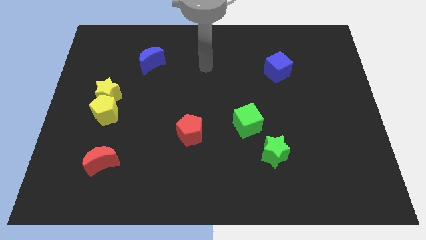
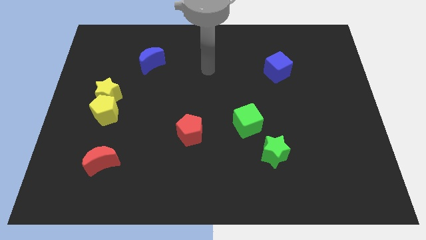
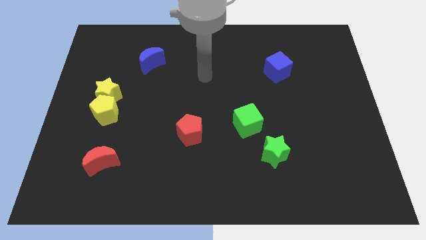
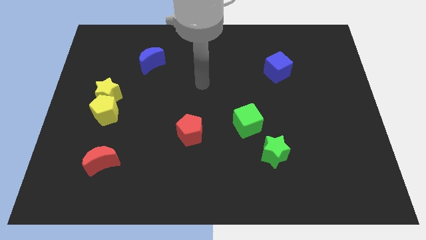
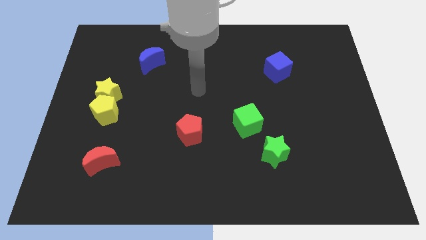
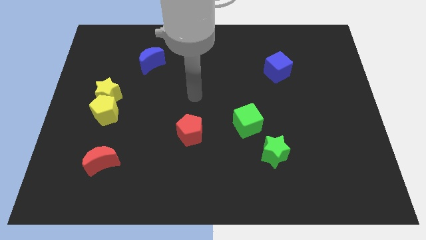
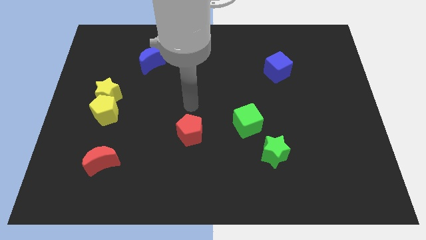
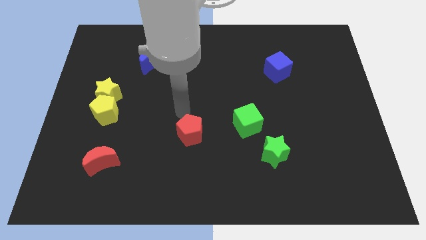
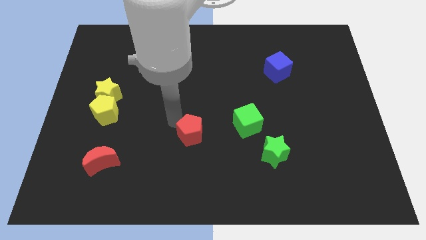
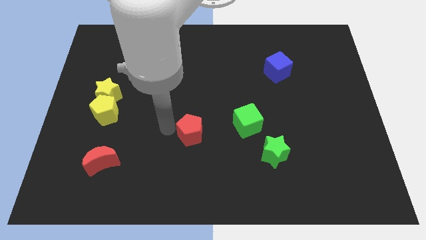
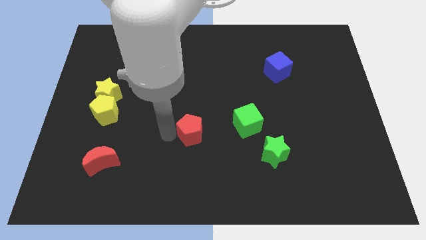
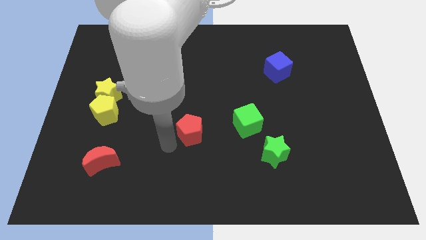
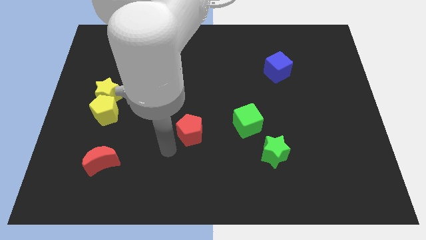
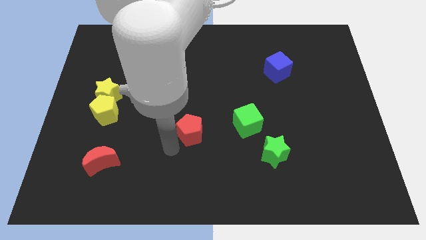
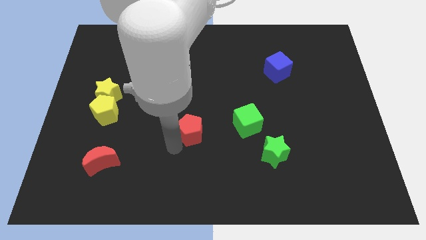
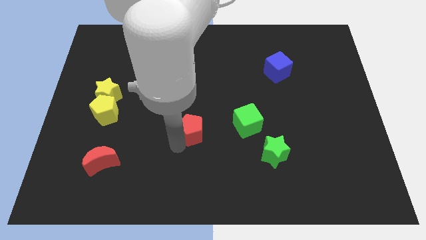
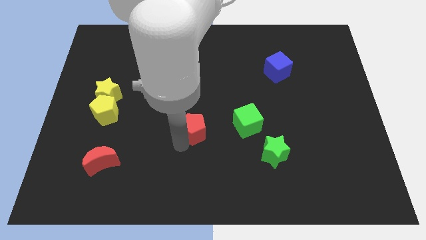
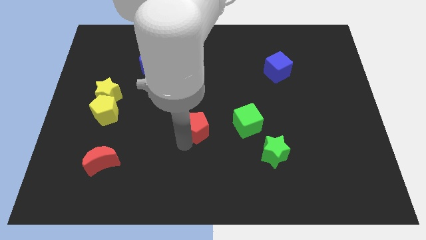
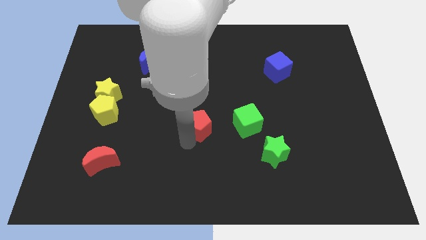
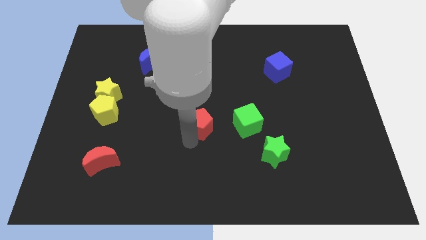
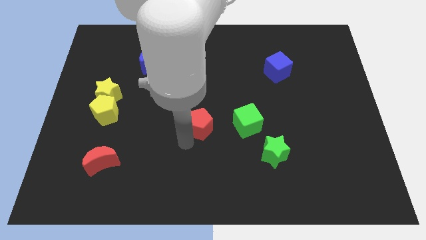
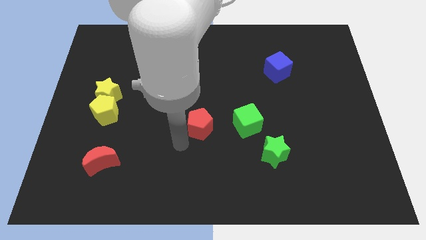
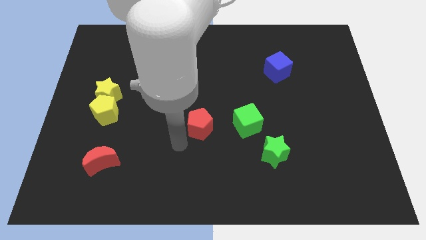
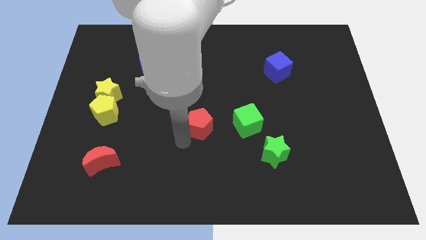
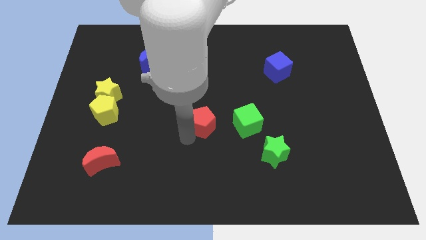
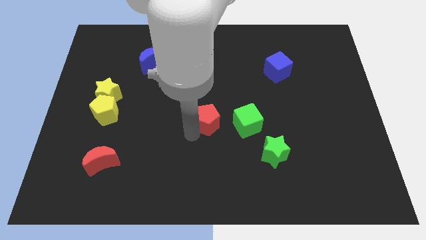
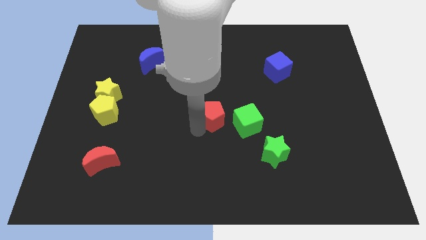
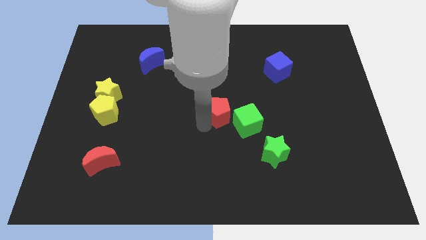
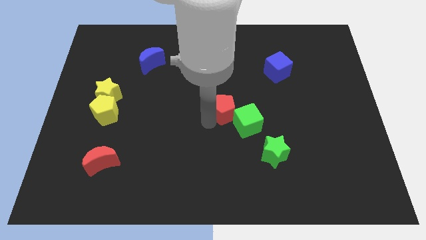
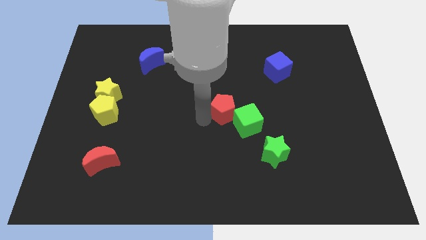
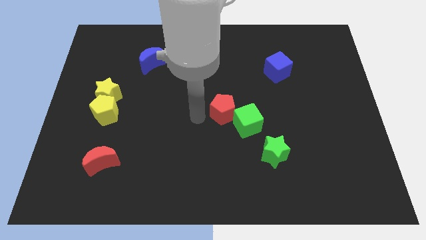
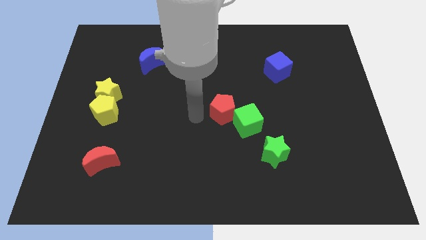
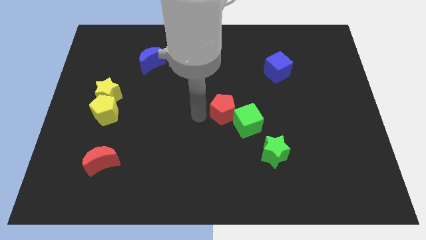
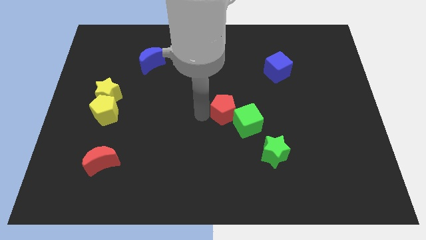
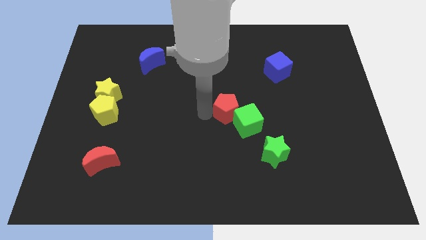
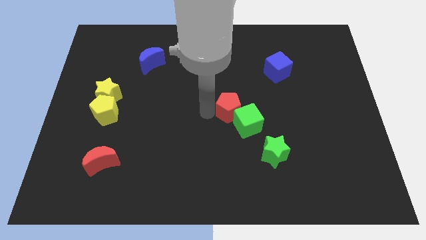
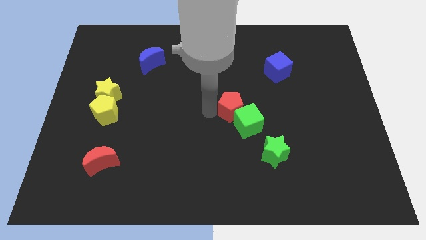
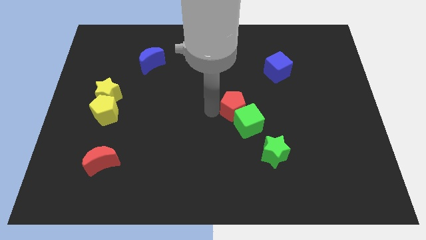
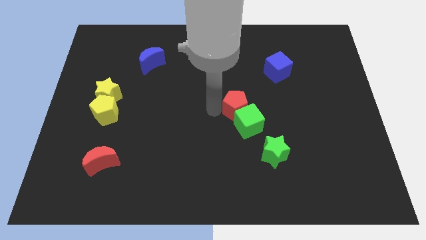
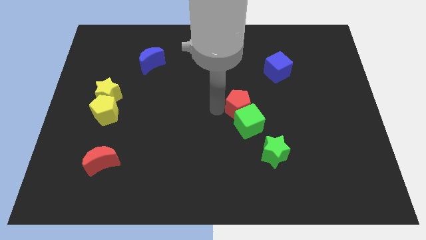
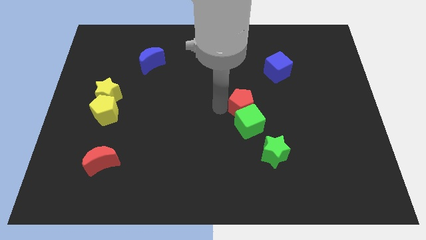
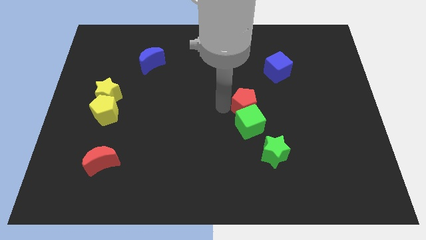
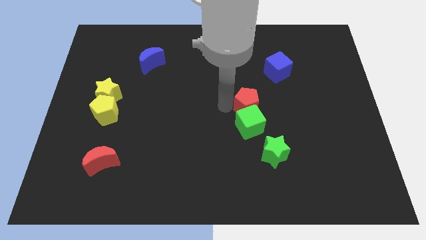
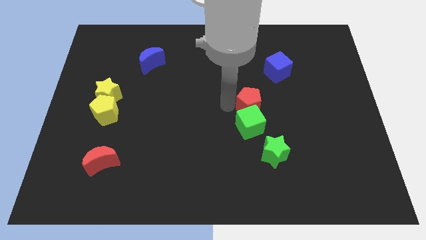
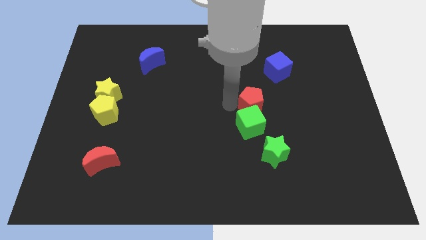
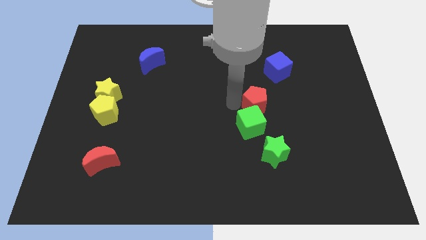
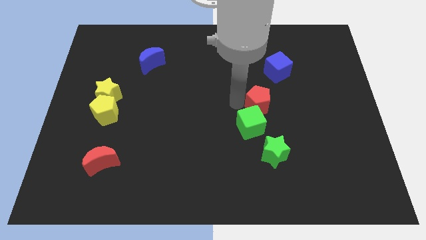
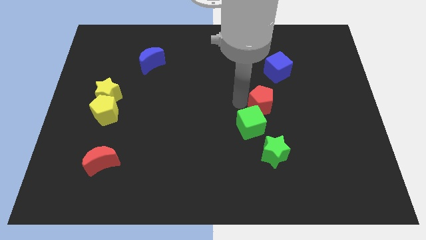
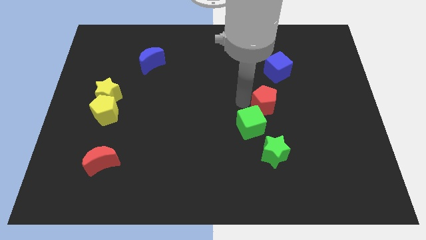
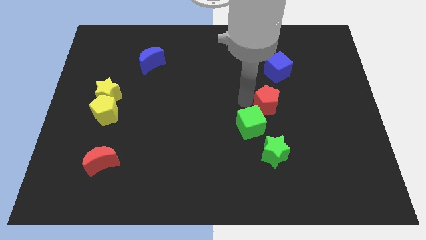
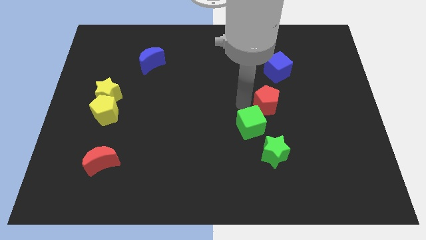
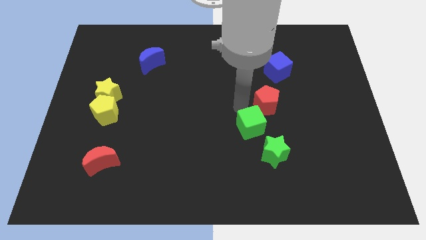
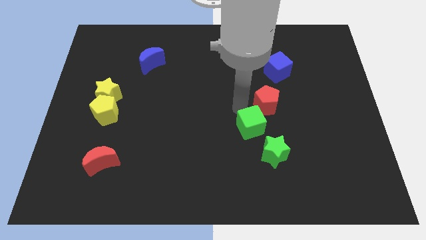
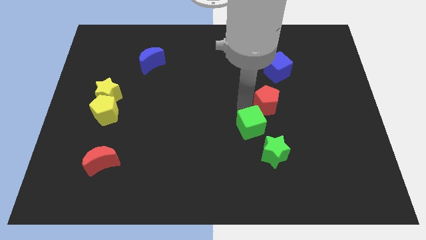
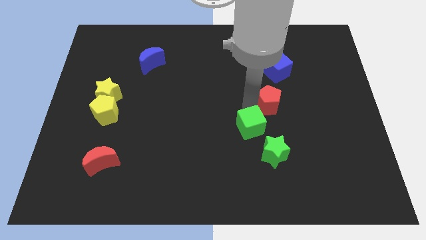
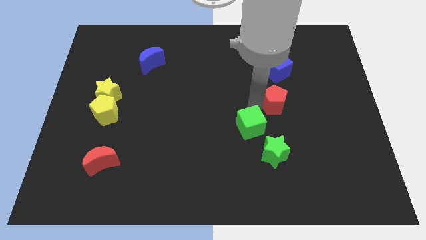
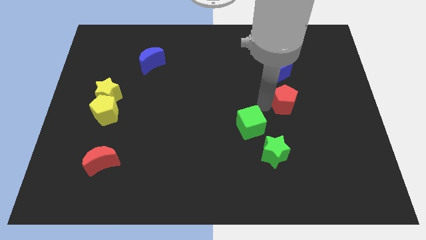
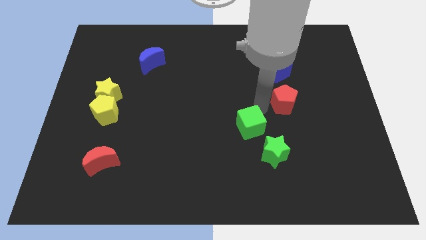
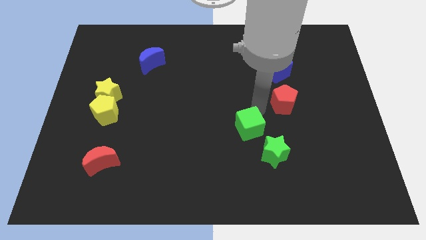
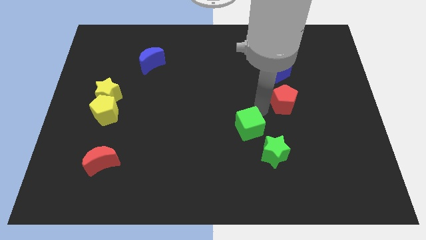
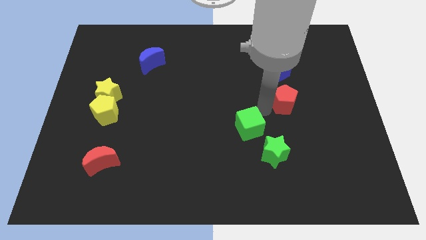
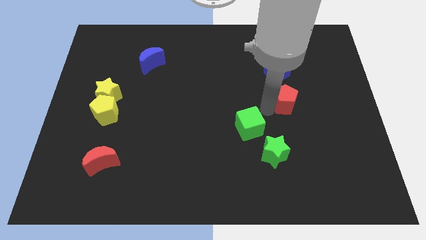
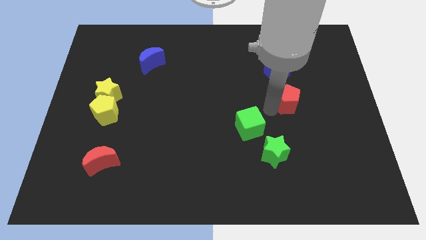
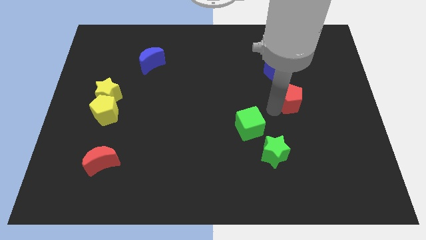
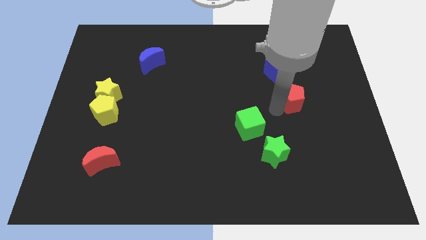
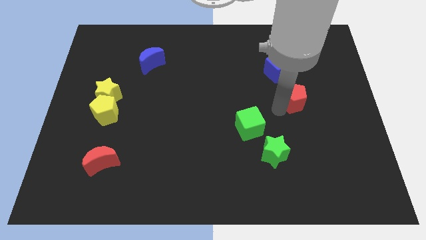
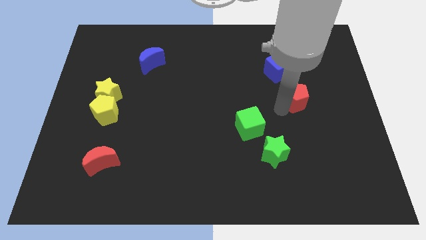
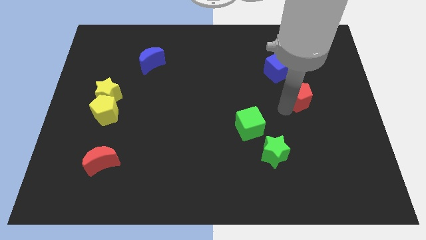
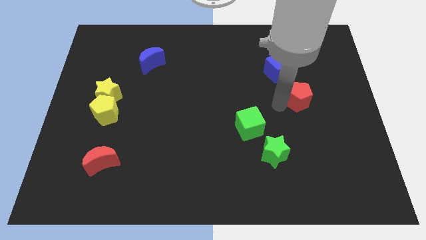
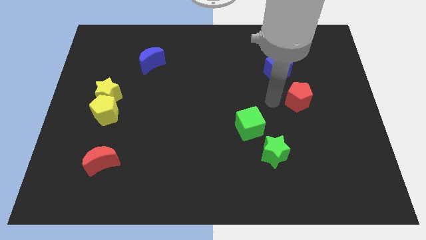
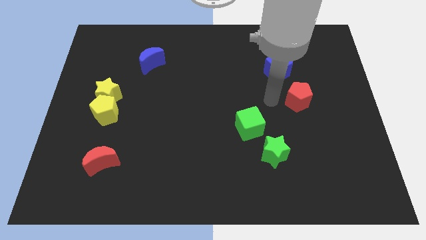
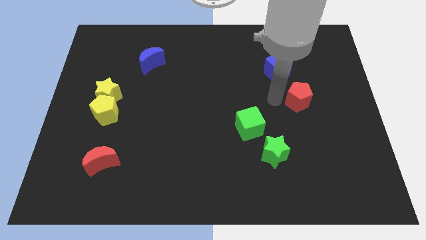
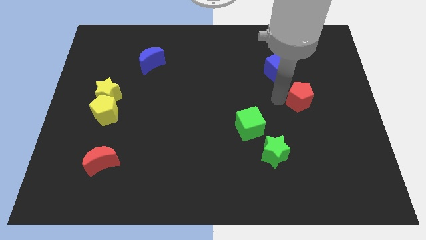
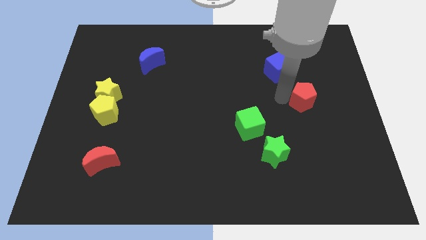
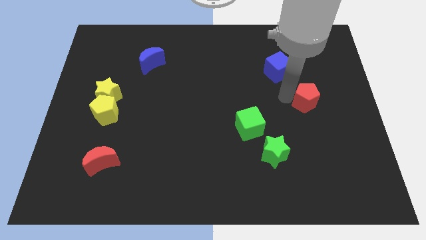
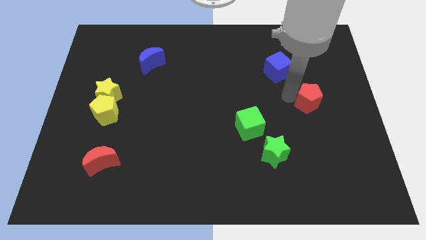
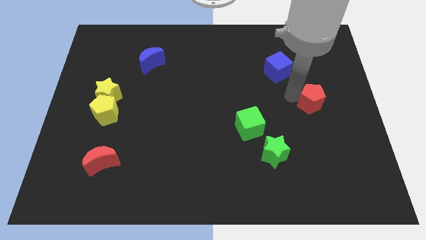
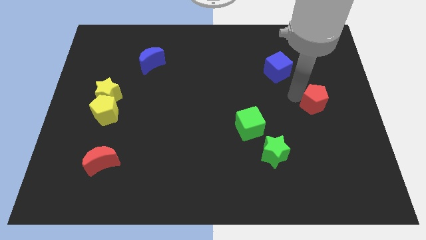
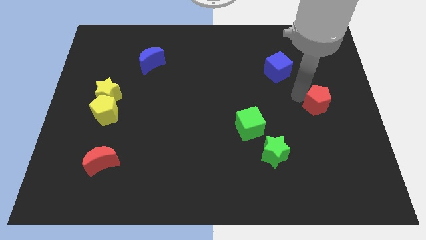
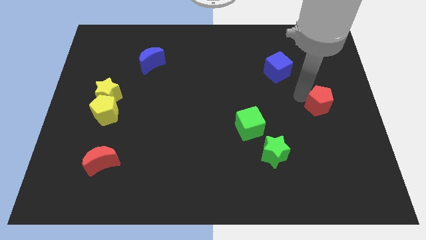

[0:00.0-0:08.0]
put the red pentagon to the center right
